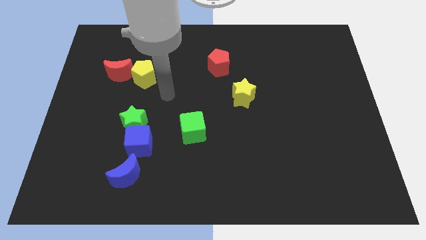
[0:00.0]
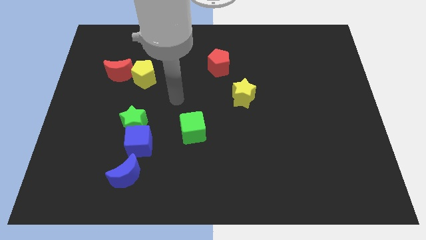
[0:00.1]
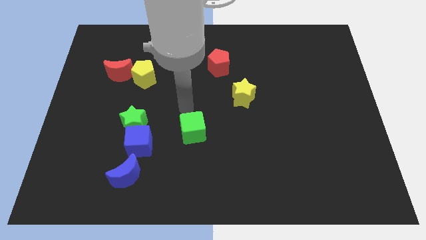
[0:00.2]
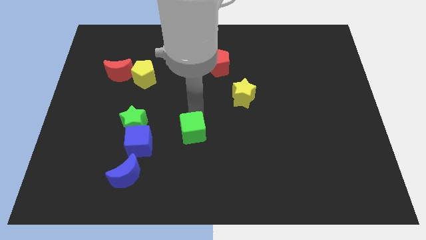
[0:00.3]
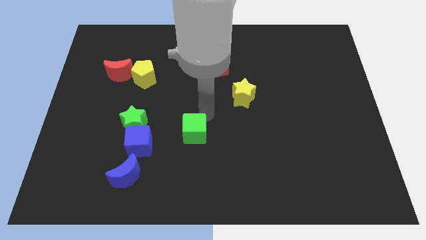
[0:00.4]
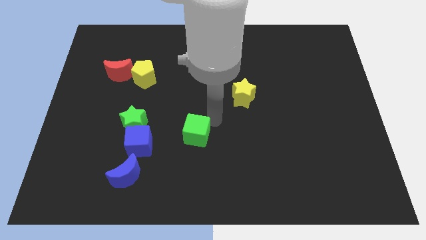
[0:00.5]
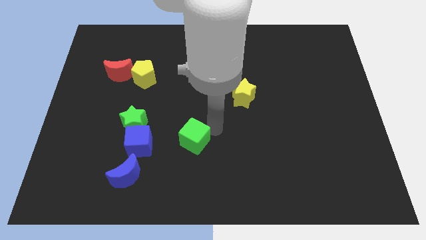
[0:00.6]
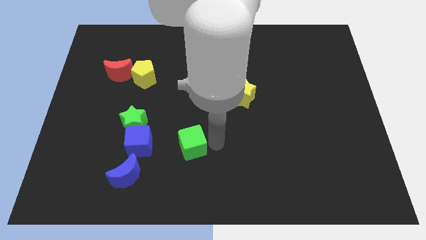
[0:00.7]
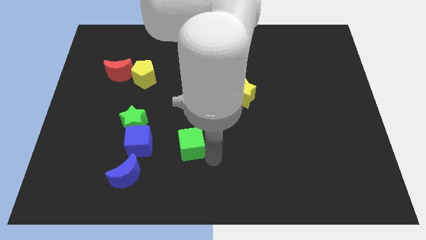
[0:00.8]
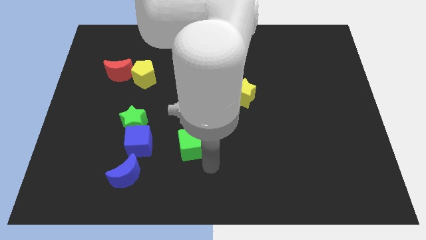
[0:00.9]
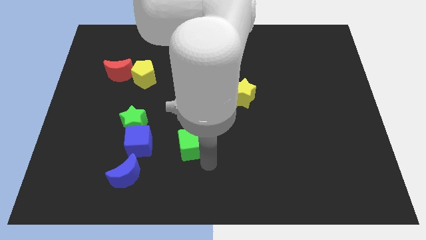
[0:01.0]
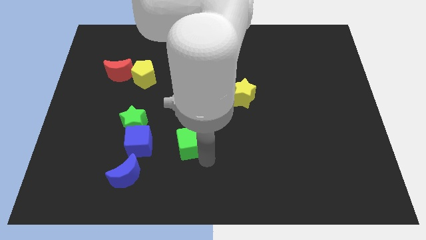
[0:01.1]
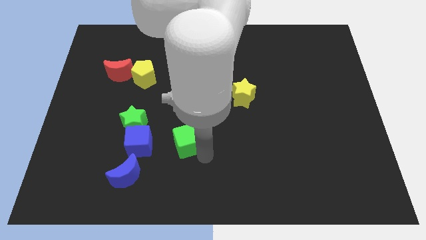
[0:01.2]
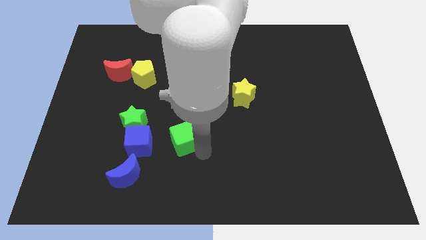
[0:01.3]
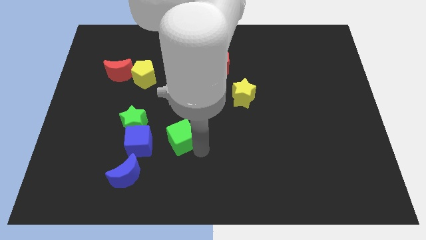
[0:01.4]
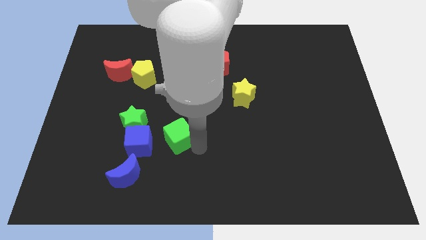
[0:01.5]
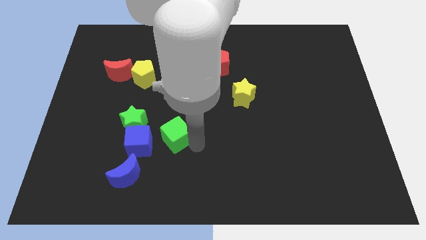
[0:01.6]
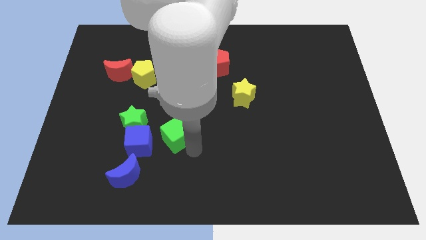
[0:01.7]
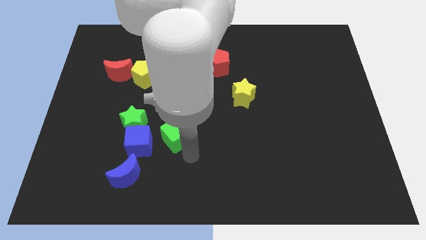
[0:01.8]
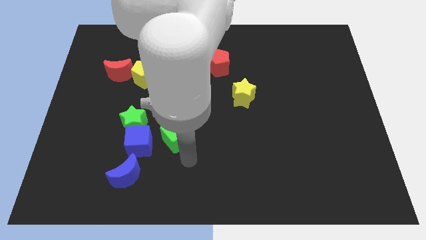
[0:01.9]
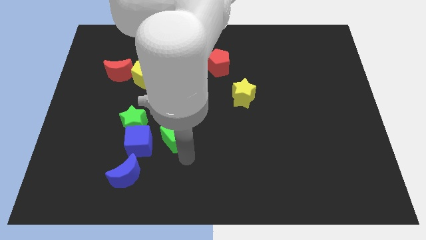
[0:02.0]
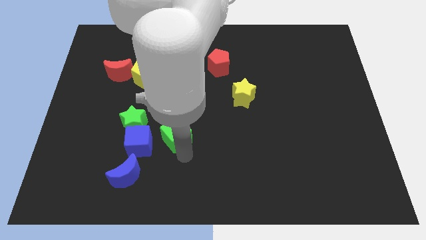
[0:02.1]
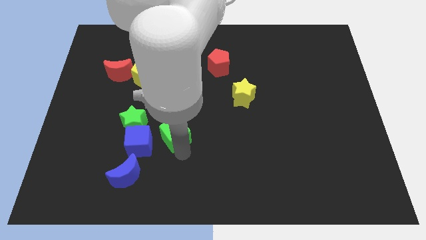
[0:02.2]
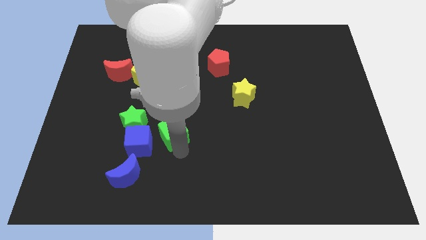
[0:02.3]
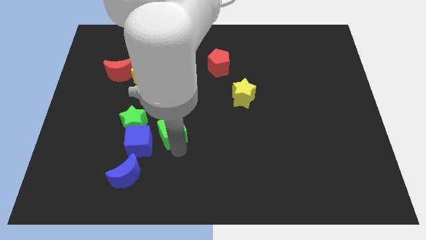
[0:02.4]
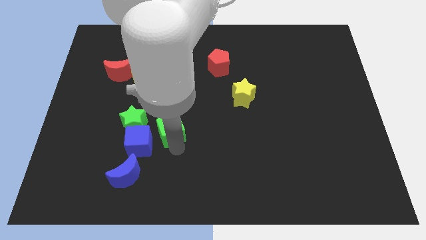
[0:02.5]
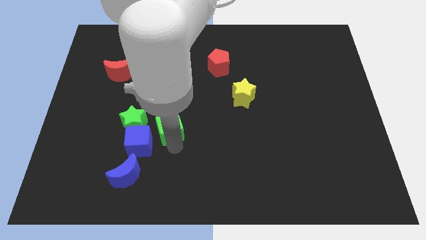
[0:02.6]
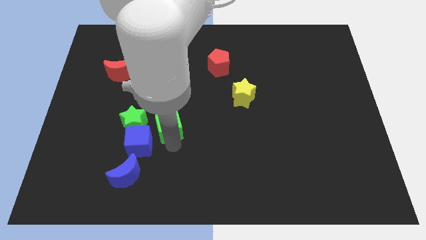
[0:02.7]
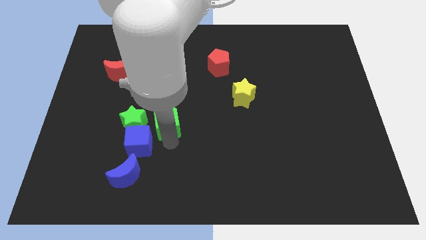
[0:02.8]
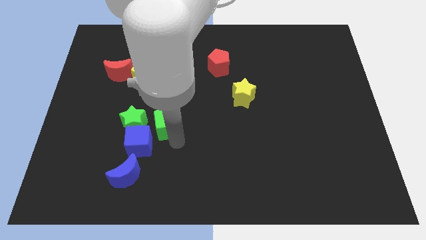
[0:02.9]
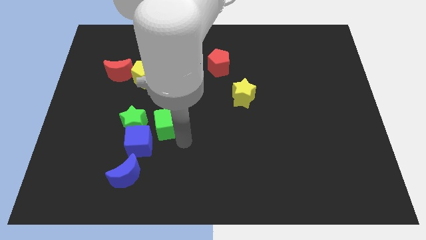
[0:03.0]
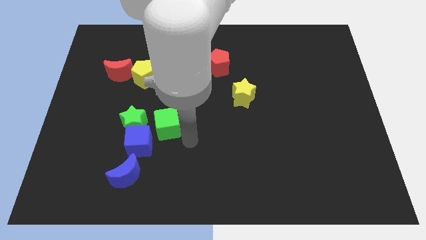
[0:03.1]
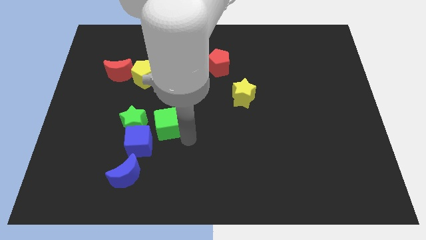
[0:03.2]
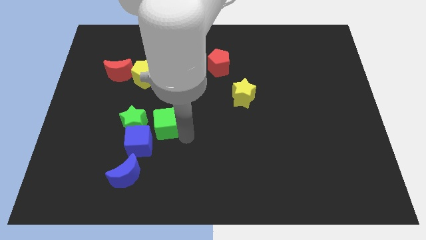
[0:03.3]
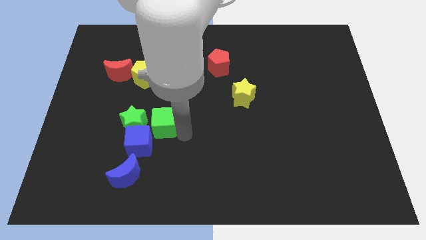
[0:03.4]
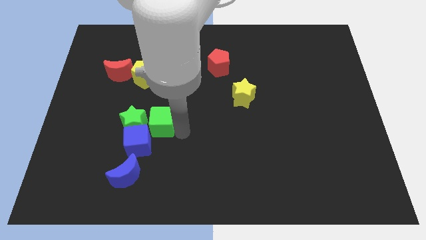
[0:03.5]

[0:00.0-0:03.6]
slide the green cube to the left slightly

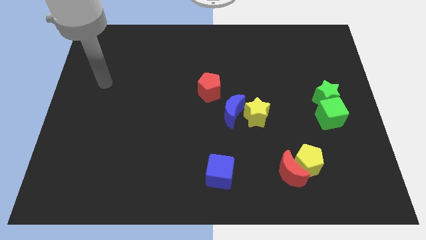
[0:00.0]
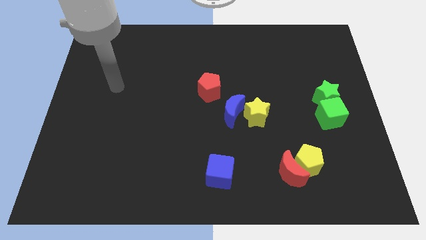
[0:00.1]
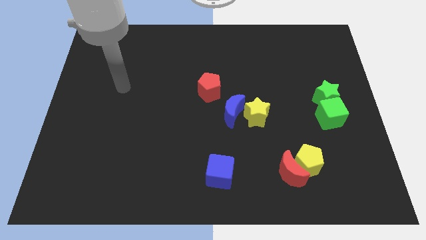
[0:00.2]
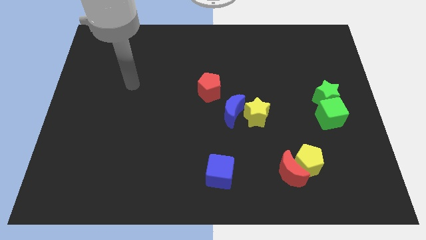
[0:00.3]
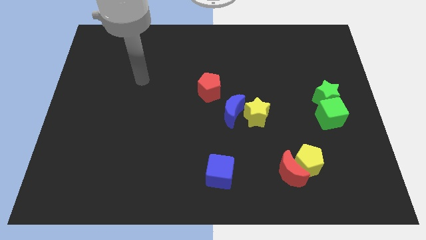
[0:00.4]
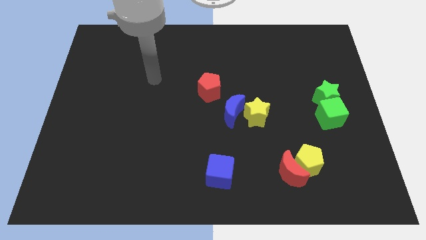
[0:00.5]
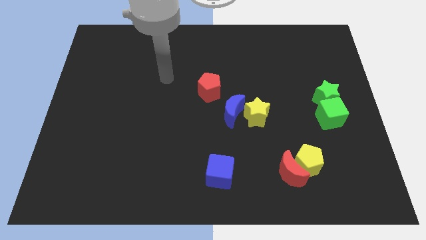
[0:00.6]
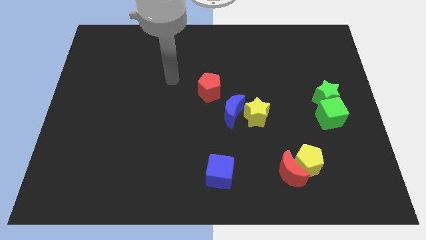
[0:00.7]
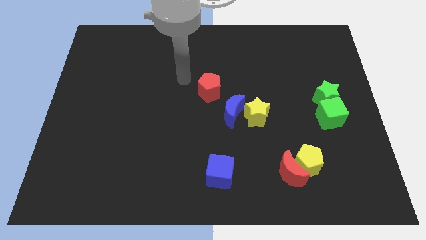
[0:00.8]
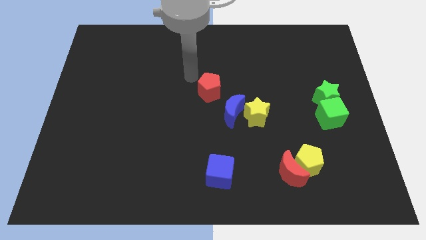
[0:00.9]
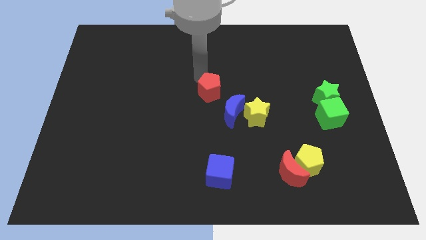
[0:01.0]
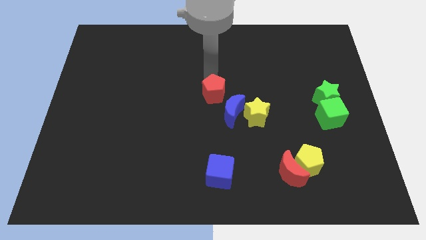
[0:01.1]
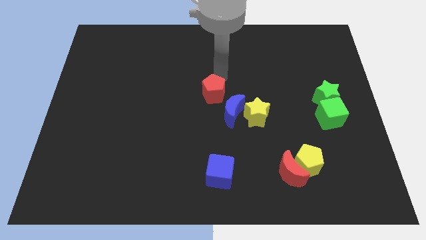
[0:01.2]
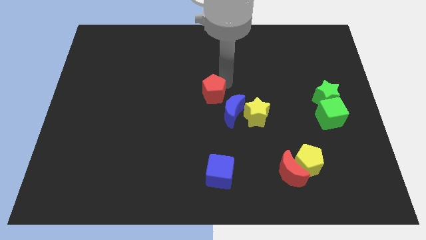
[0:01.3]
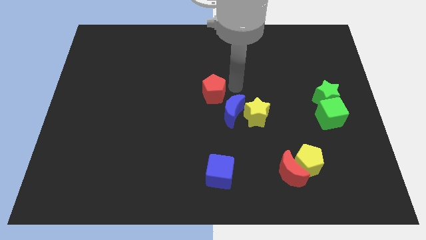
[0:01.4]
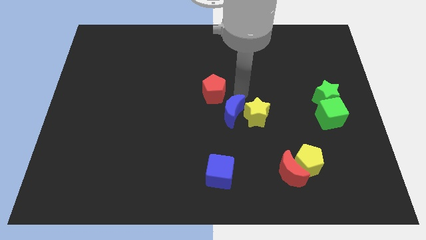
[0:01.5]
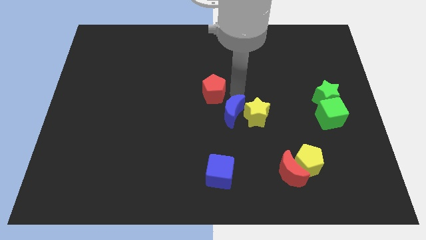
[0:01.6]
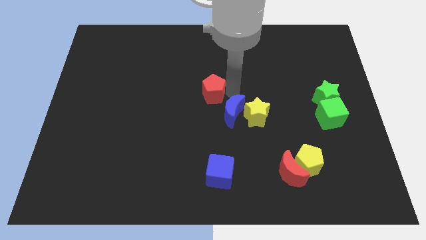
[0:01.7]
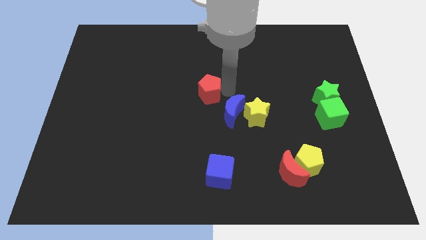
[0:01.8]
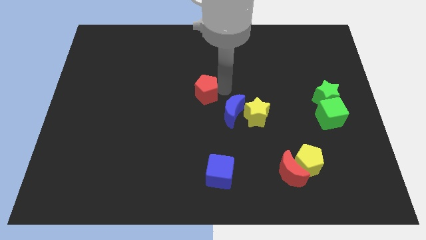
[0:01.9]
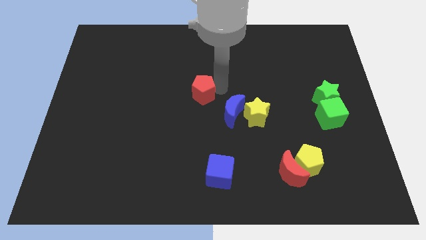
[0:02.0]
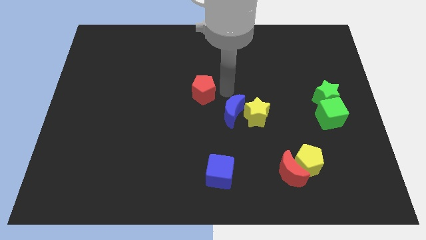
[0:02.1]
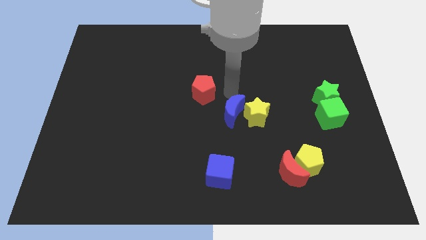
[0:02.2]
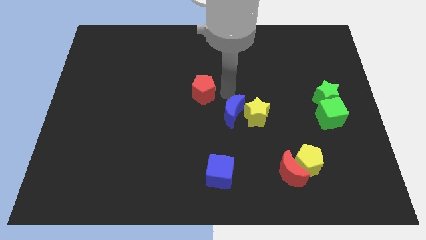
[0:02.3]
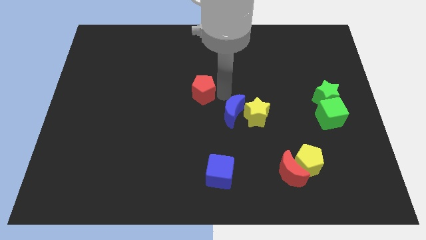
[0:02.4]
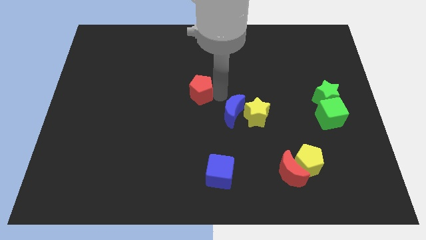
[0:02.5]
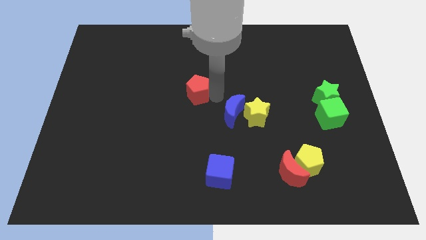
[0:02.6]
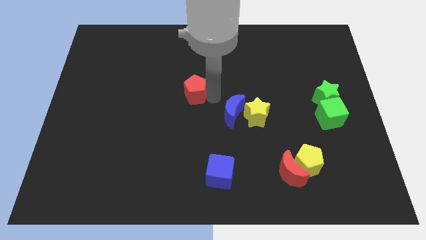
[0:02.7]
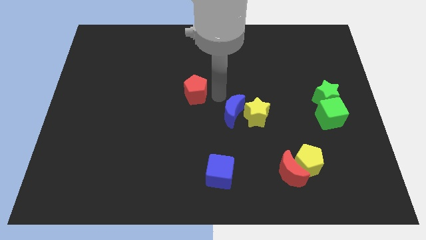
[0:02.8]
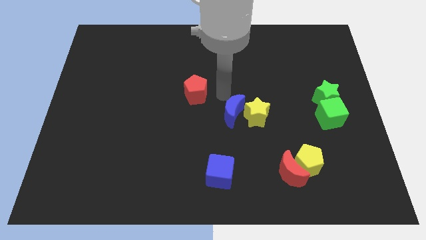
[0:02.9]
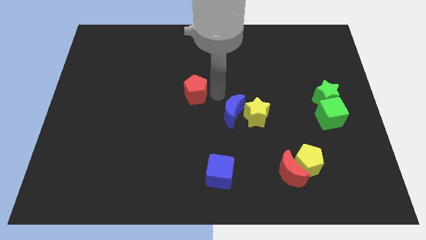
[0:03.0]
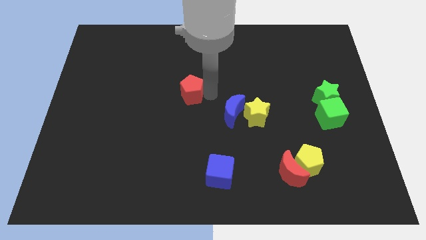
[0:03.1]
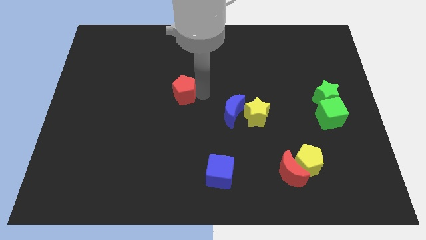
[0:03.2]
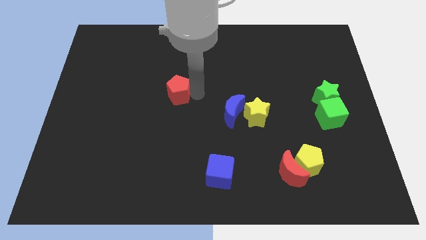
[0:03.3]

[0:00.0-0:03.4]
push the red pentagon left a bit

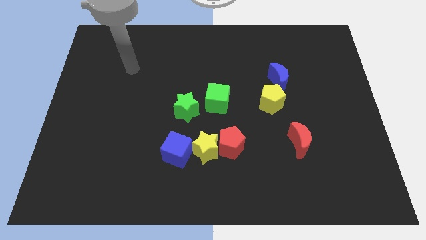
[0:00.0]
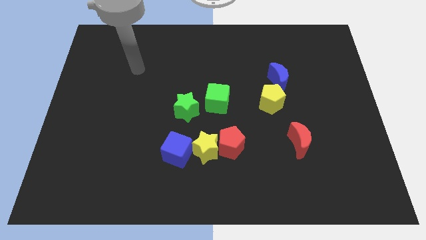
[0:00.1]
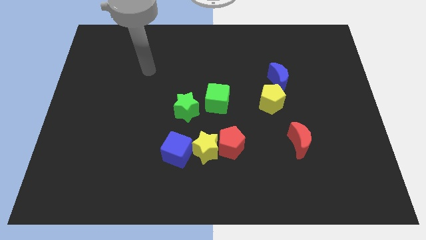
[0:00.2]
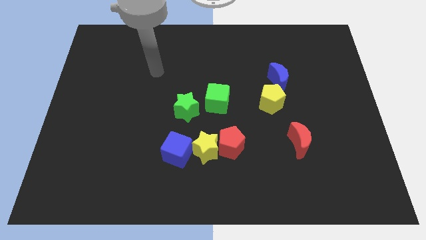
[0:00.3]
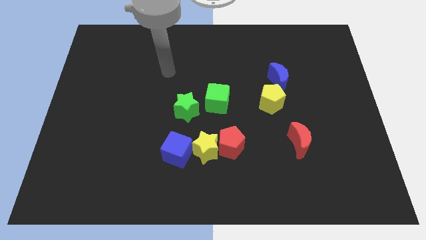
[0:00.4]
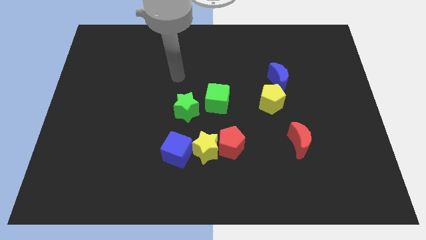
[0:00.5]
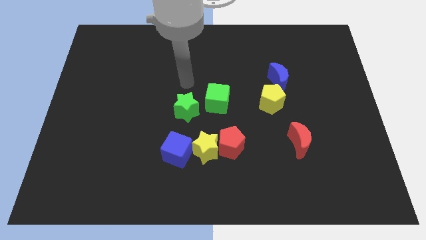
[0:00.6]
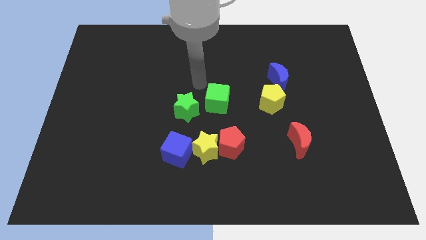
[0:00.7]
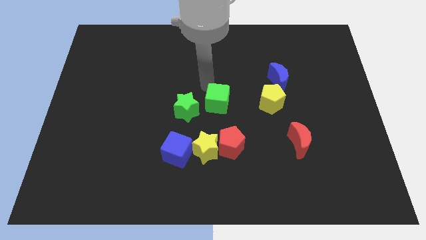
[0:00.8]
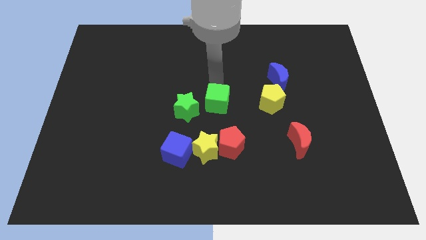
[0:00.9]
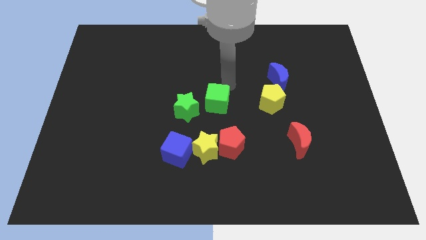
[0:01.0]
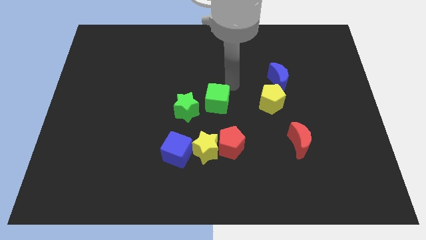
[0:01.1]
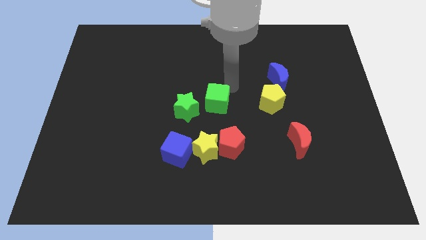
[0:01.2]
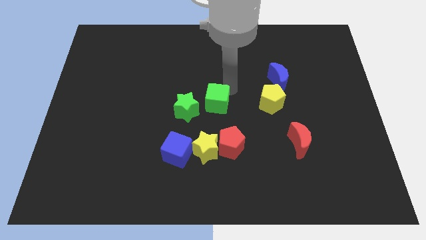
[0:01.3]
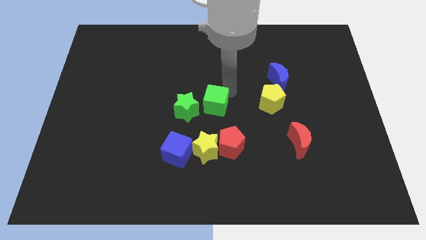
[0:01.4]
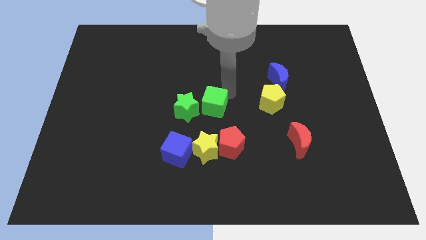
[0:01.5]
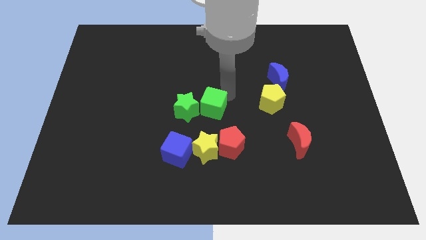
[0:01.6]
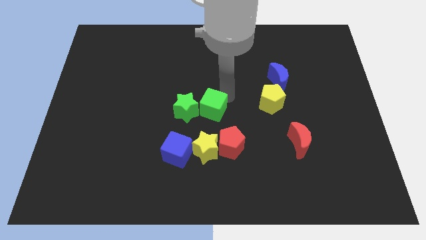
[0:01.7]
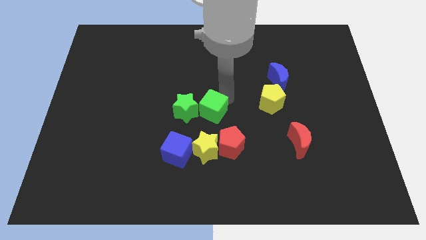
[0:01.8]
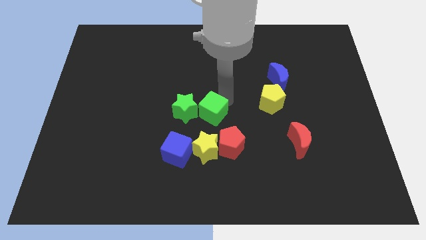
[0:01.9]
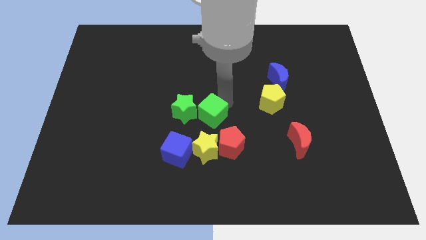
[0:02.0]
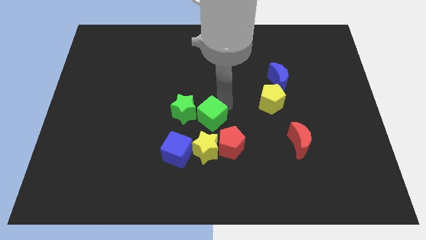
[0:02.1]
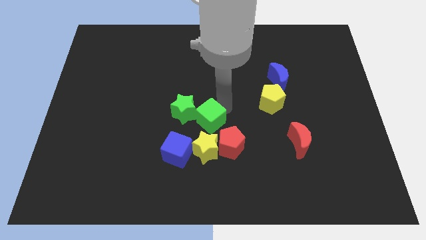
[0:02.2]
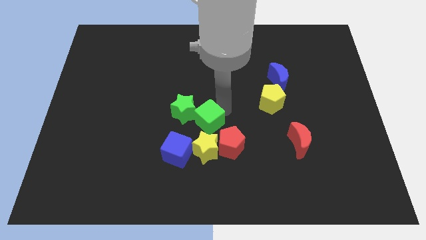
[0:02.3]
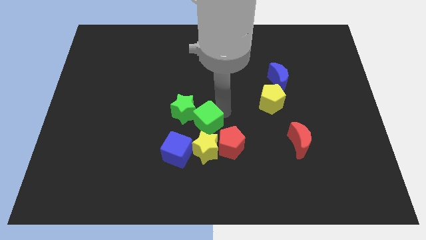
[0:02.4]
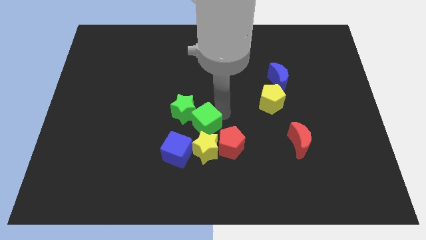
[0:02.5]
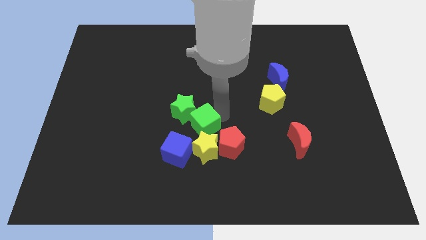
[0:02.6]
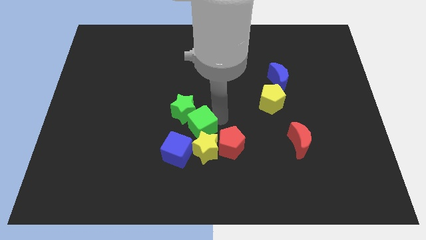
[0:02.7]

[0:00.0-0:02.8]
push the green cube slightly diagonally down and left
